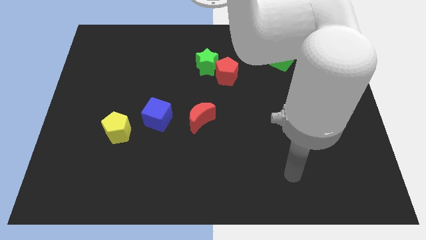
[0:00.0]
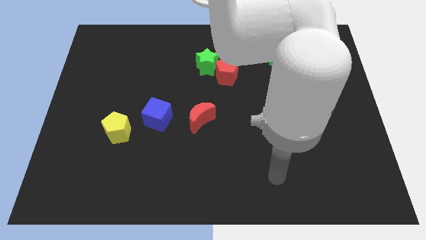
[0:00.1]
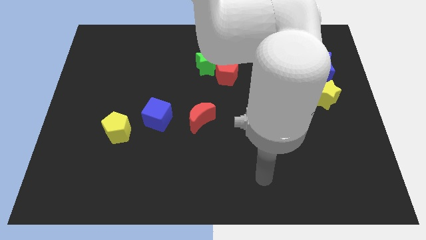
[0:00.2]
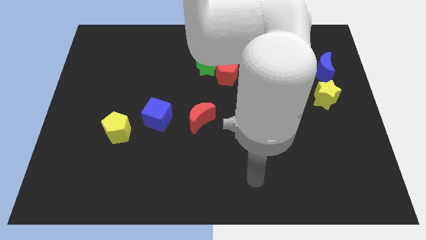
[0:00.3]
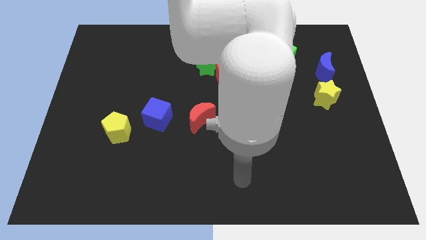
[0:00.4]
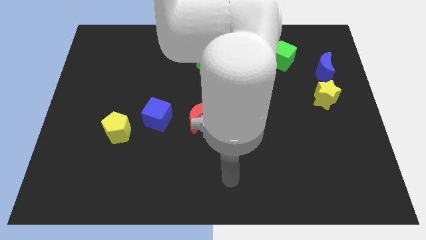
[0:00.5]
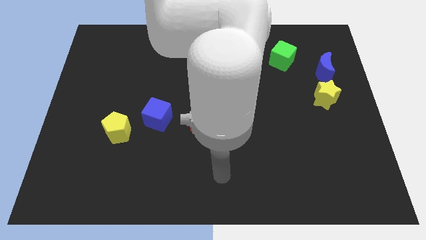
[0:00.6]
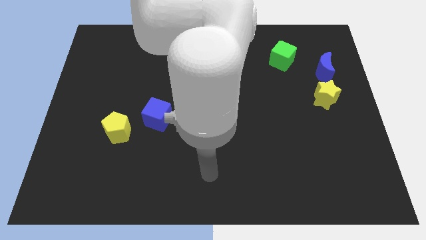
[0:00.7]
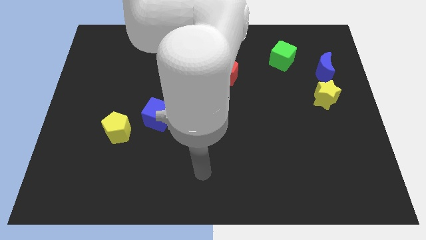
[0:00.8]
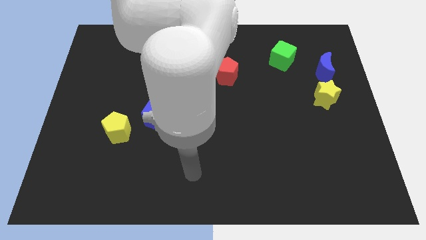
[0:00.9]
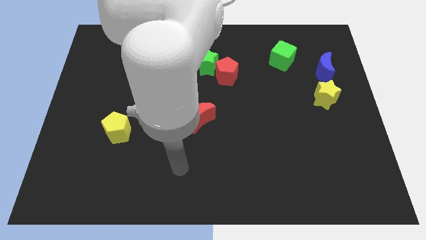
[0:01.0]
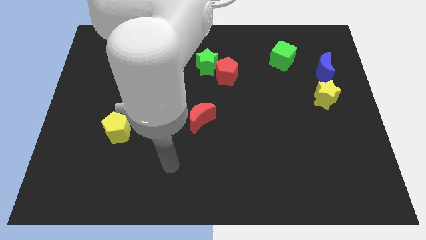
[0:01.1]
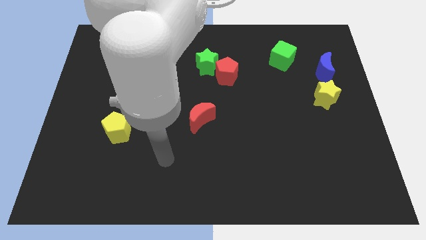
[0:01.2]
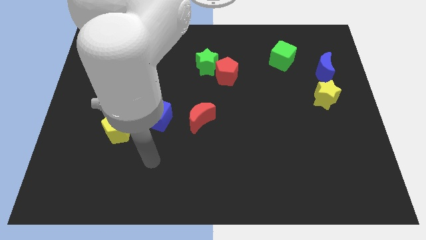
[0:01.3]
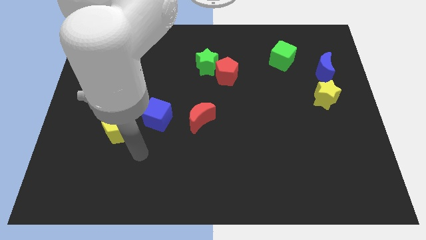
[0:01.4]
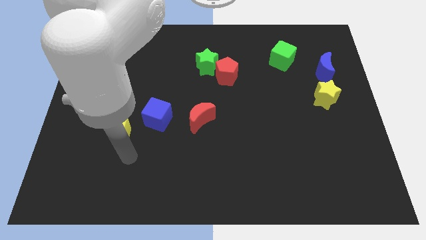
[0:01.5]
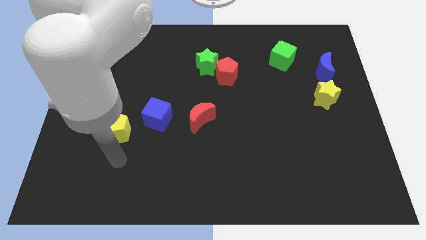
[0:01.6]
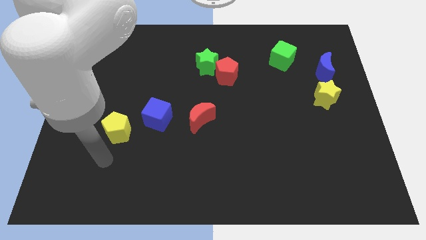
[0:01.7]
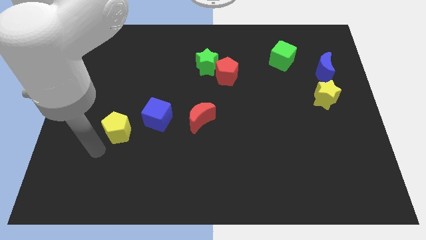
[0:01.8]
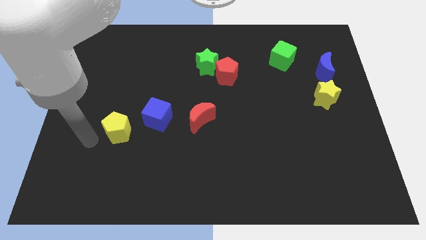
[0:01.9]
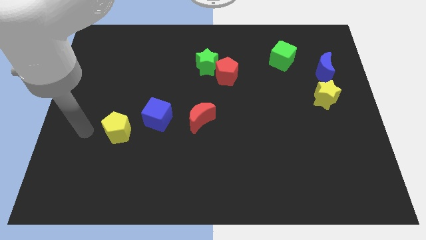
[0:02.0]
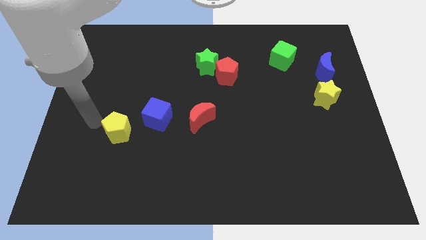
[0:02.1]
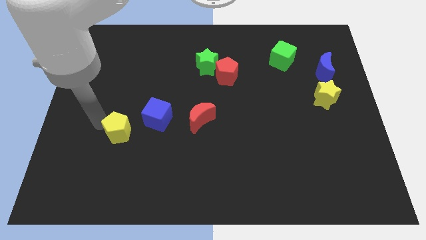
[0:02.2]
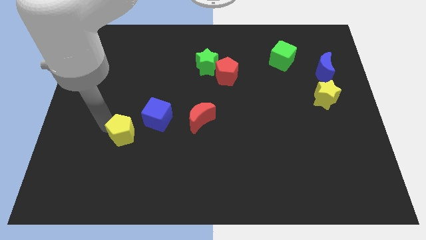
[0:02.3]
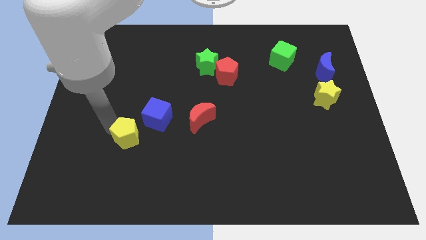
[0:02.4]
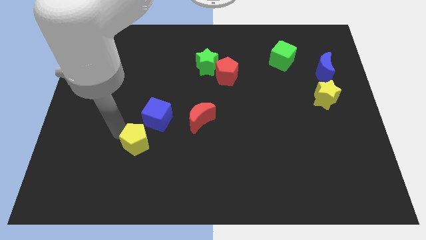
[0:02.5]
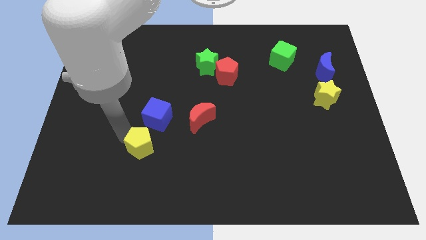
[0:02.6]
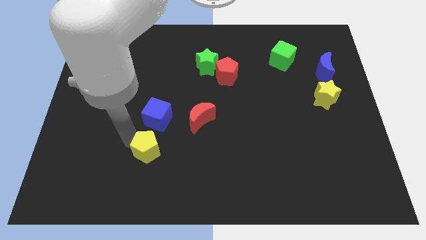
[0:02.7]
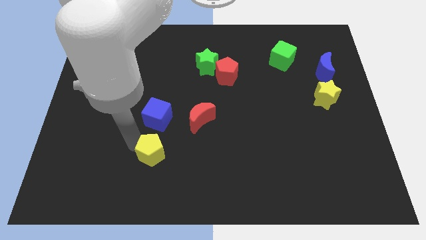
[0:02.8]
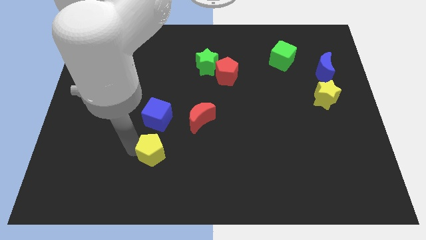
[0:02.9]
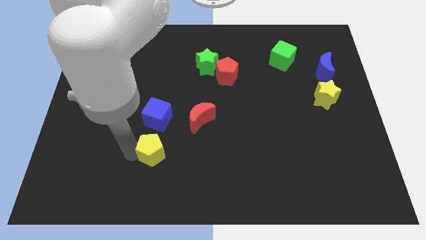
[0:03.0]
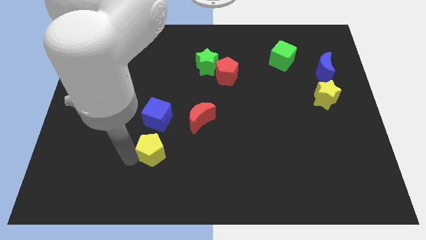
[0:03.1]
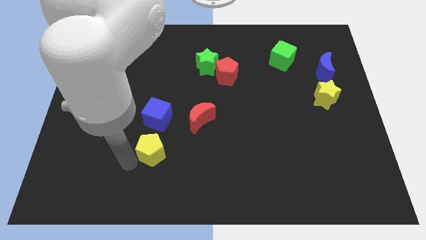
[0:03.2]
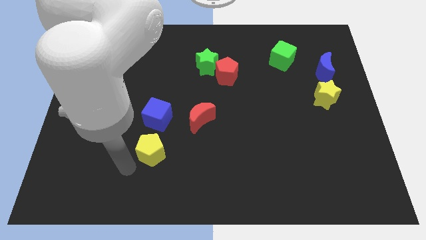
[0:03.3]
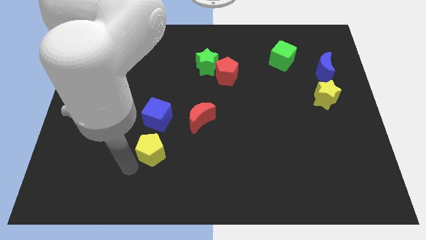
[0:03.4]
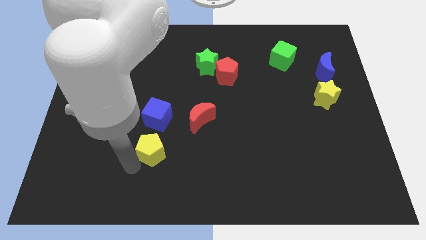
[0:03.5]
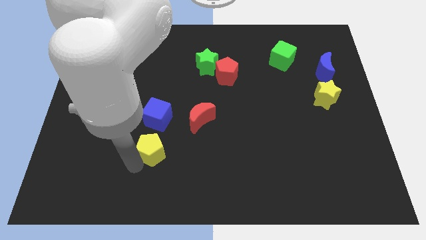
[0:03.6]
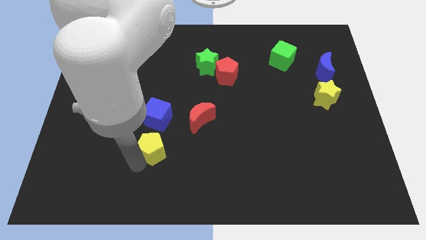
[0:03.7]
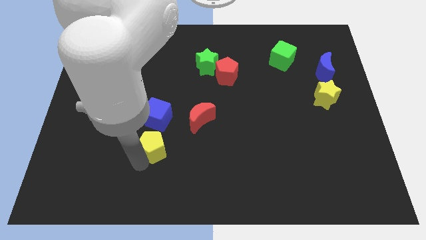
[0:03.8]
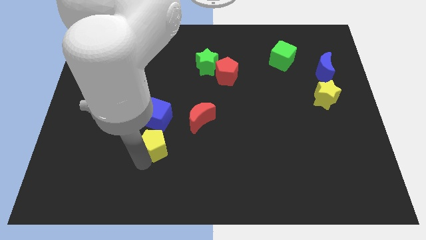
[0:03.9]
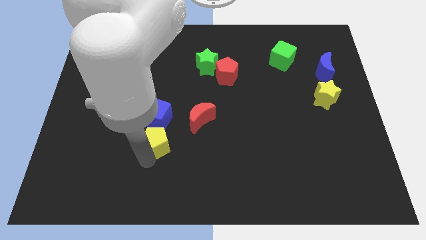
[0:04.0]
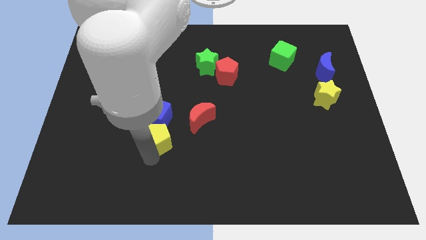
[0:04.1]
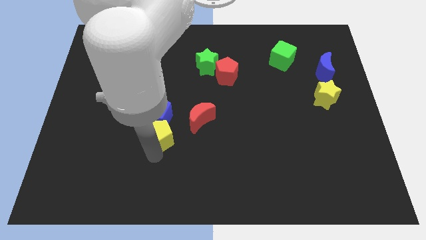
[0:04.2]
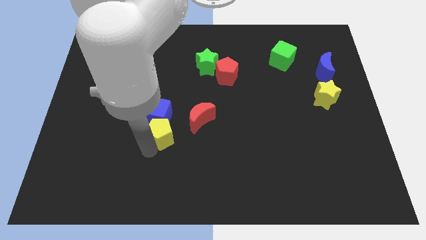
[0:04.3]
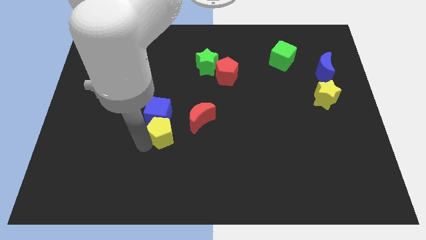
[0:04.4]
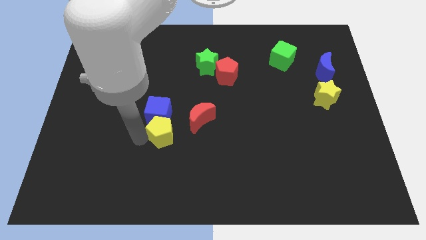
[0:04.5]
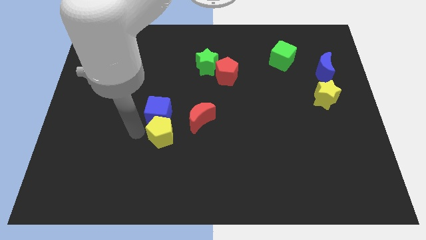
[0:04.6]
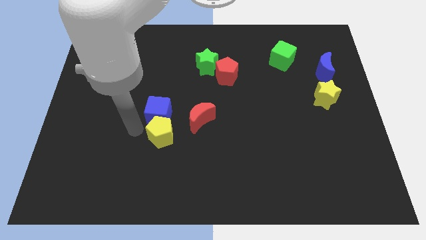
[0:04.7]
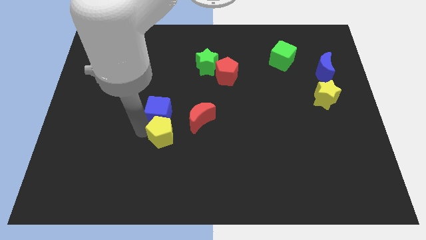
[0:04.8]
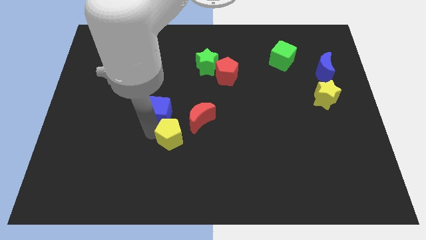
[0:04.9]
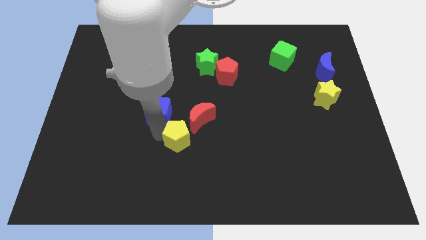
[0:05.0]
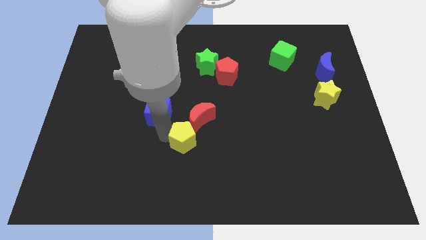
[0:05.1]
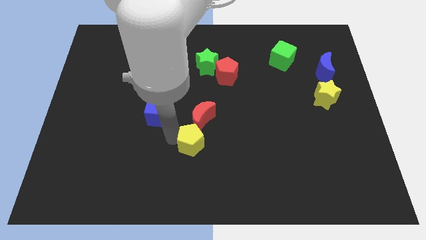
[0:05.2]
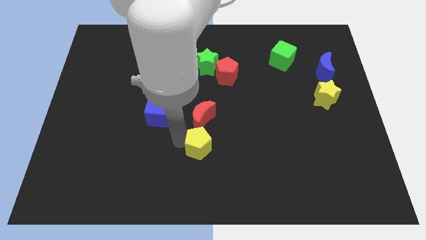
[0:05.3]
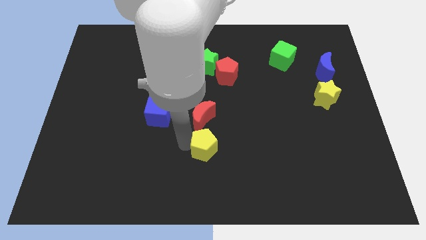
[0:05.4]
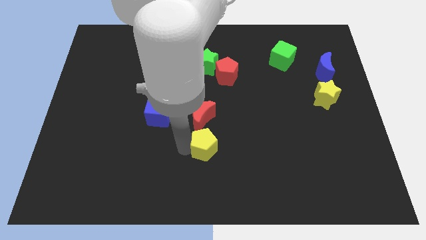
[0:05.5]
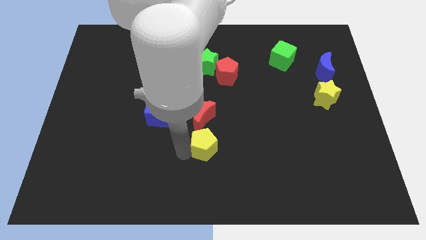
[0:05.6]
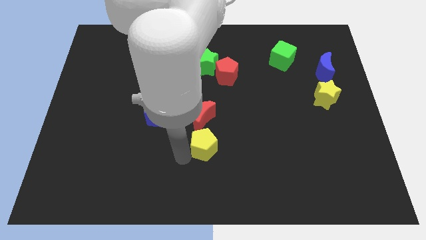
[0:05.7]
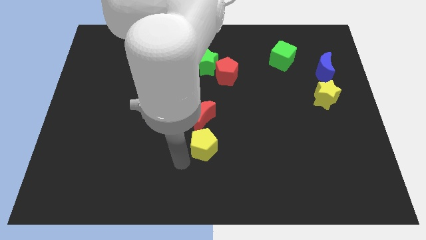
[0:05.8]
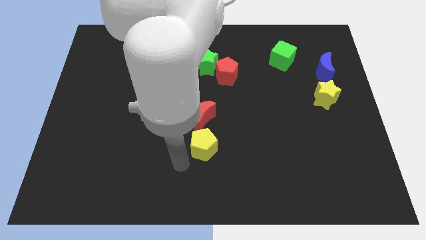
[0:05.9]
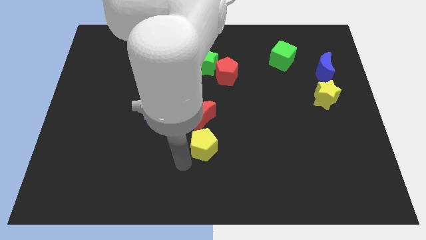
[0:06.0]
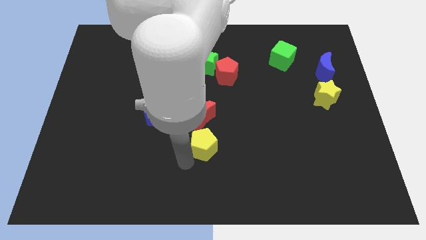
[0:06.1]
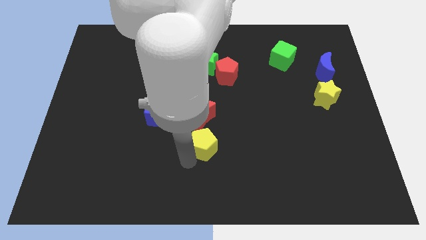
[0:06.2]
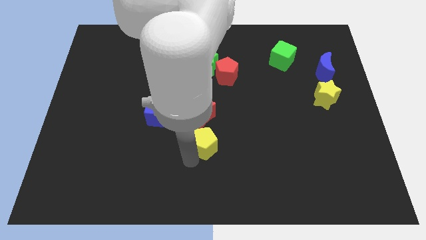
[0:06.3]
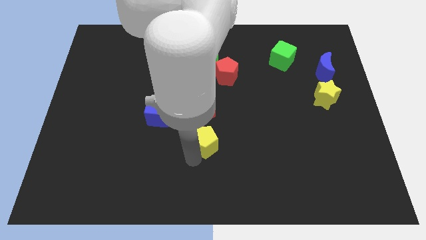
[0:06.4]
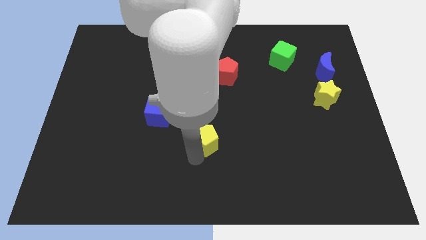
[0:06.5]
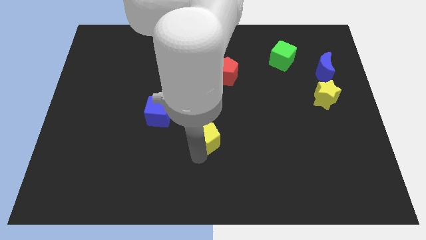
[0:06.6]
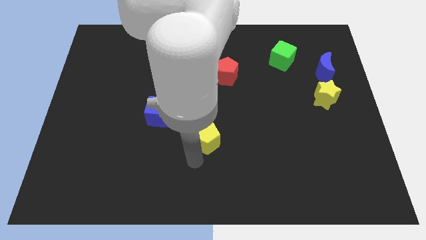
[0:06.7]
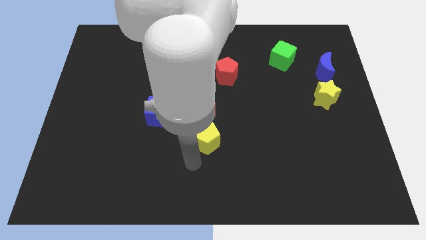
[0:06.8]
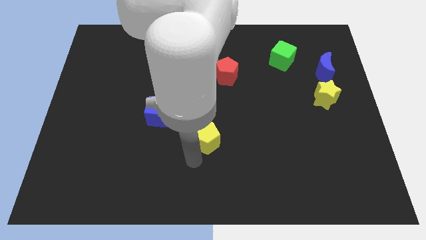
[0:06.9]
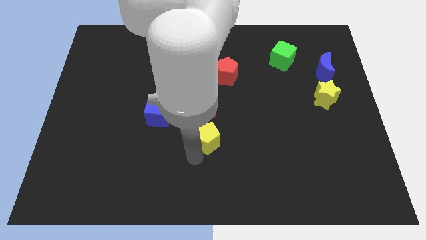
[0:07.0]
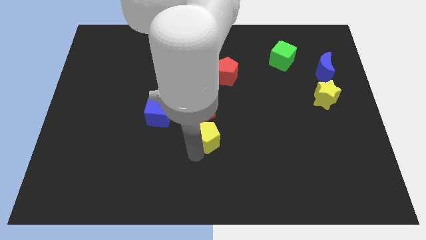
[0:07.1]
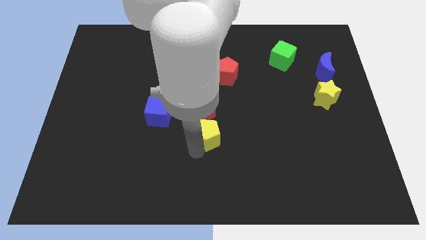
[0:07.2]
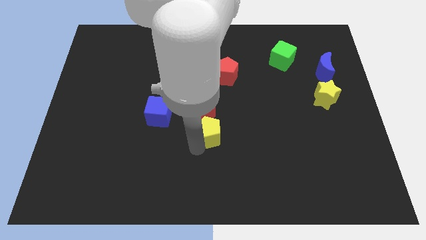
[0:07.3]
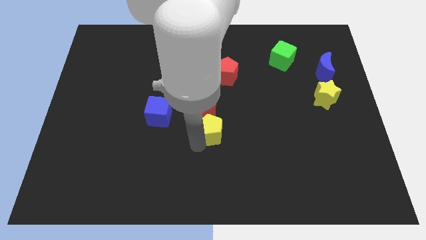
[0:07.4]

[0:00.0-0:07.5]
push the yellow pentagon to the right side of the blue cube
